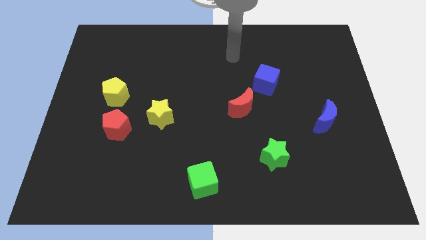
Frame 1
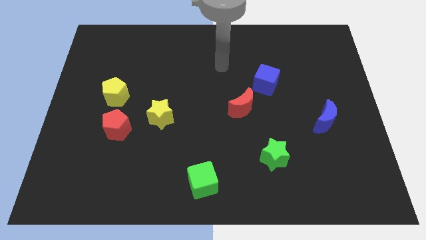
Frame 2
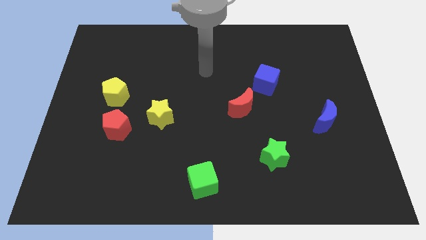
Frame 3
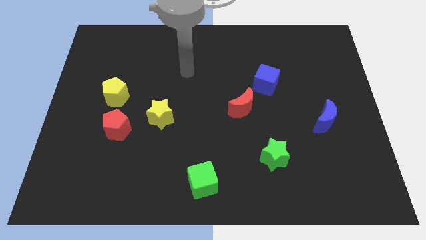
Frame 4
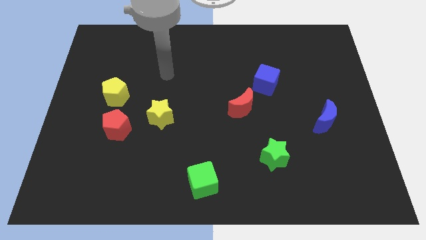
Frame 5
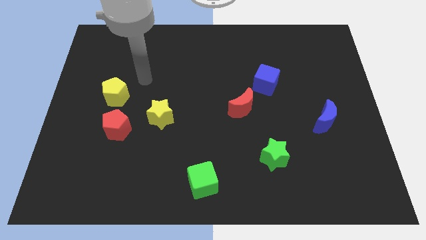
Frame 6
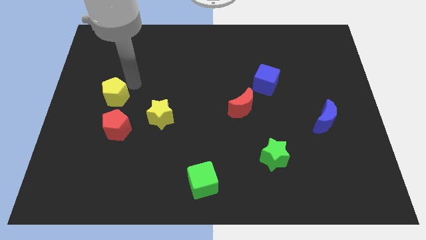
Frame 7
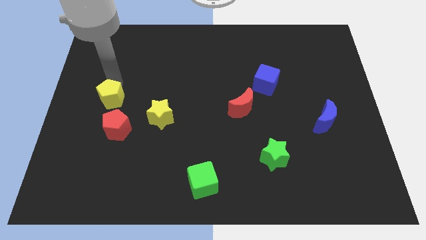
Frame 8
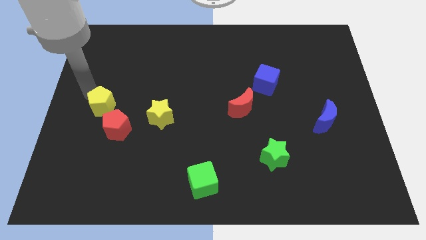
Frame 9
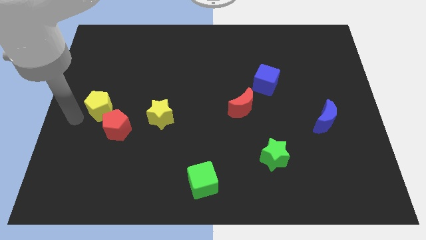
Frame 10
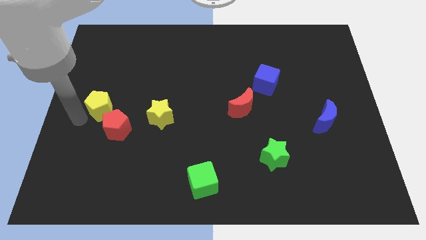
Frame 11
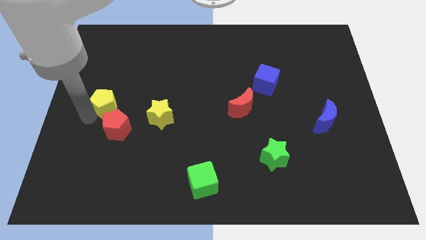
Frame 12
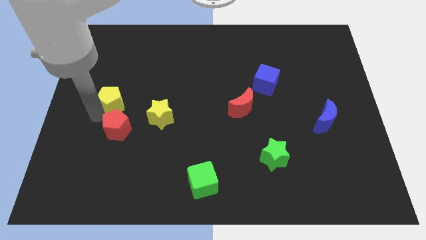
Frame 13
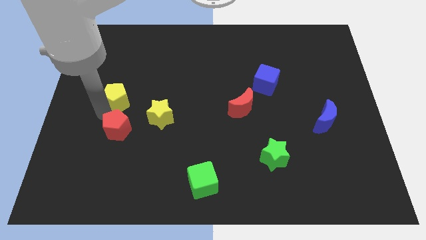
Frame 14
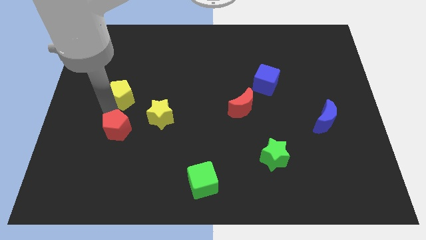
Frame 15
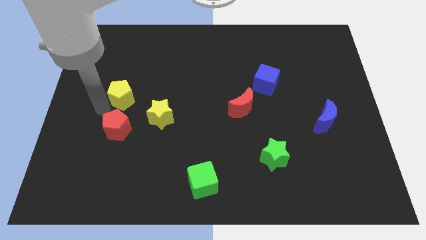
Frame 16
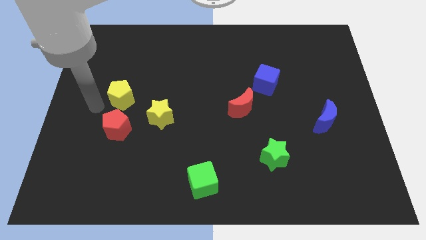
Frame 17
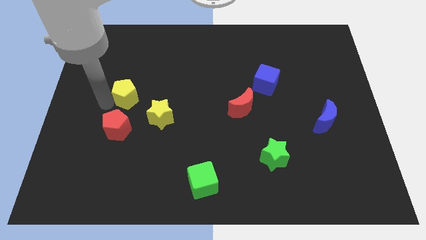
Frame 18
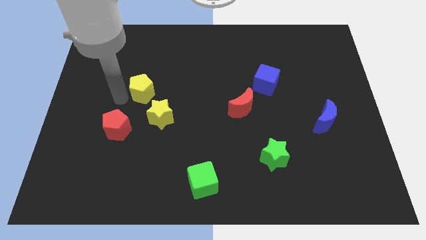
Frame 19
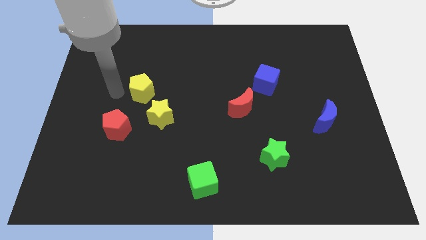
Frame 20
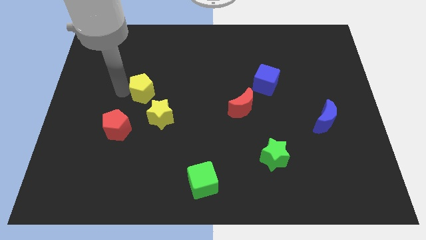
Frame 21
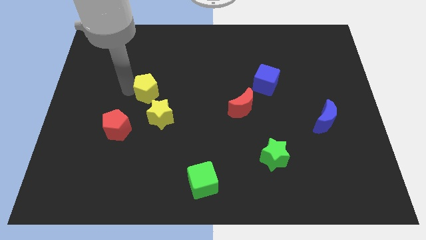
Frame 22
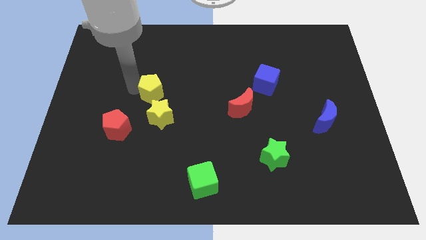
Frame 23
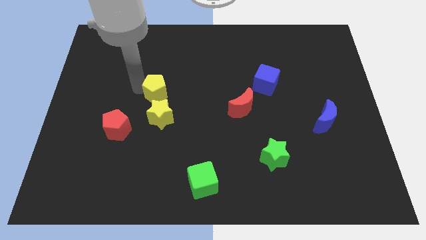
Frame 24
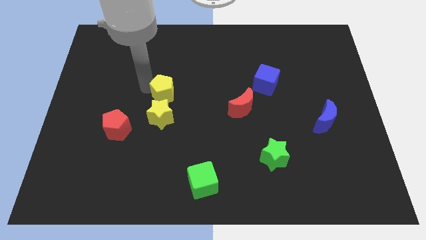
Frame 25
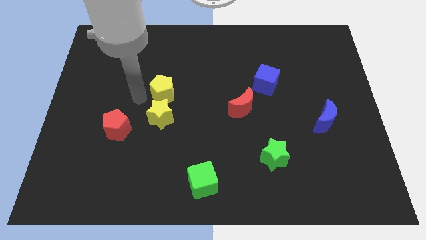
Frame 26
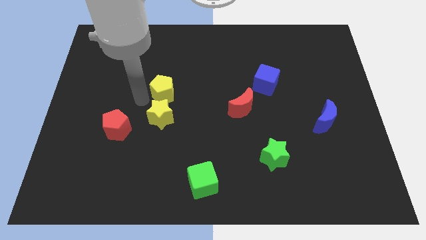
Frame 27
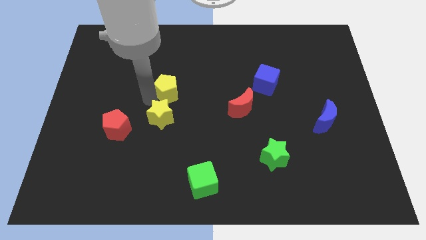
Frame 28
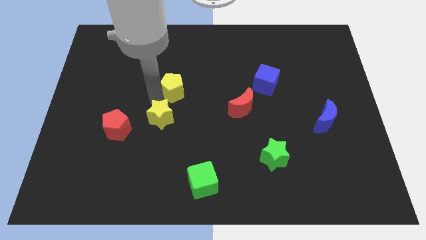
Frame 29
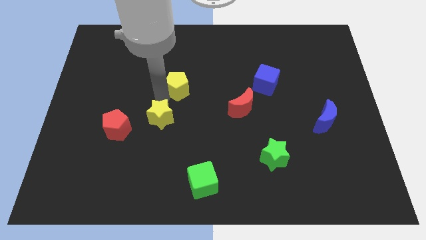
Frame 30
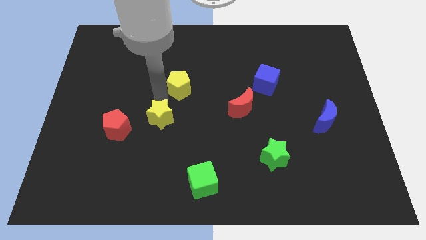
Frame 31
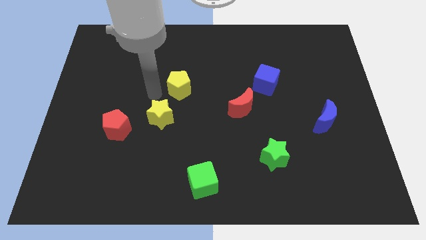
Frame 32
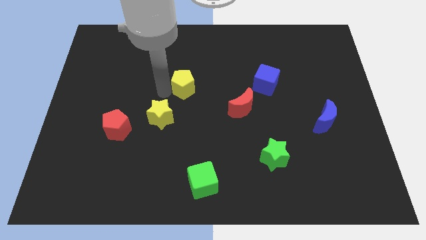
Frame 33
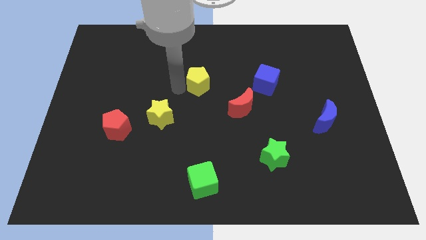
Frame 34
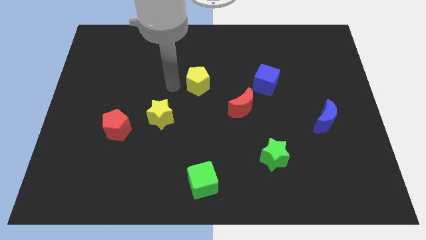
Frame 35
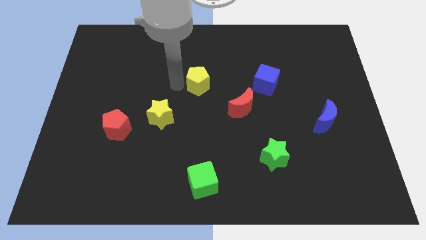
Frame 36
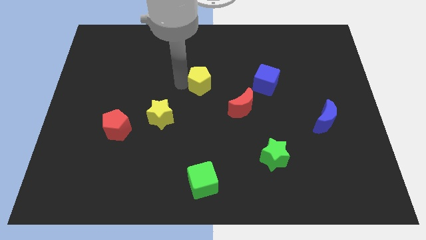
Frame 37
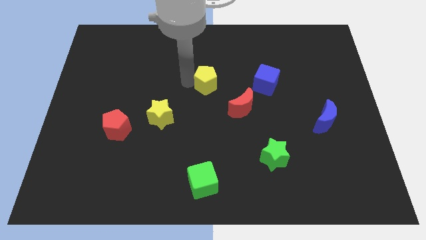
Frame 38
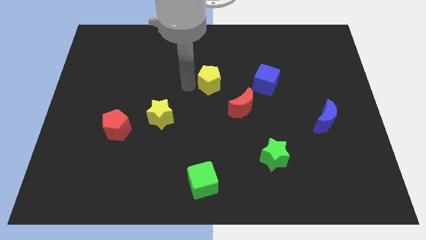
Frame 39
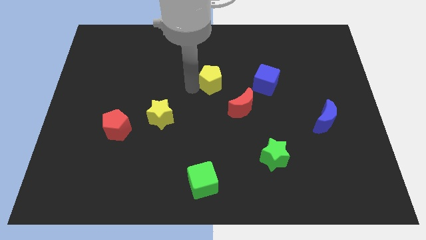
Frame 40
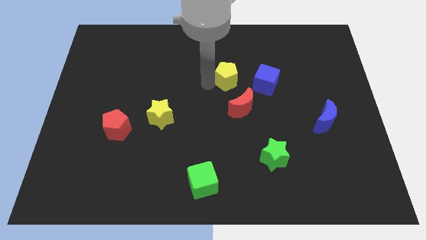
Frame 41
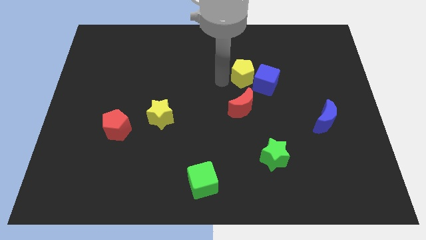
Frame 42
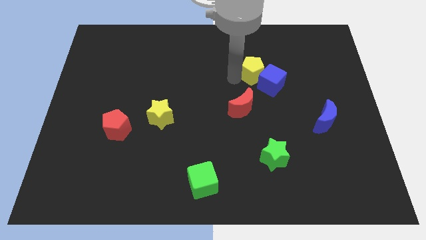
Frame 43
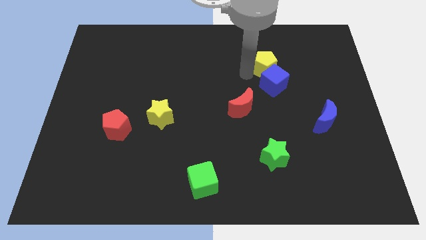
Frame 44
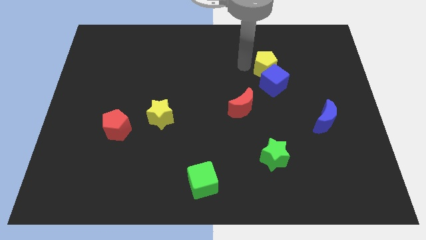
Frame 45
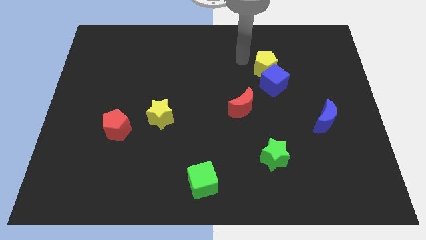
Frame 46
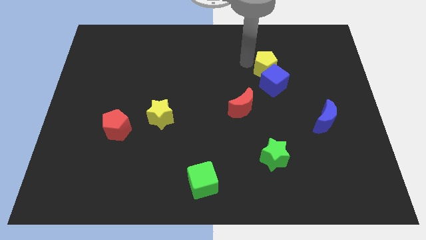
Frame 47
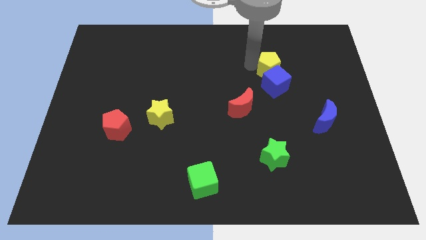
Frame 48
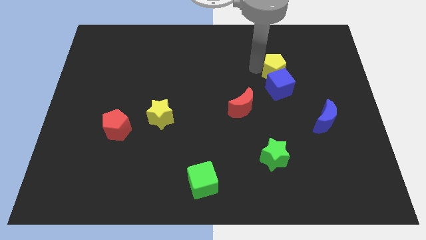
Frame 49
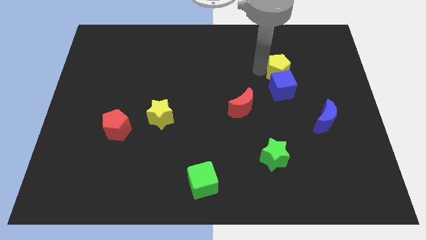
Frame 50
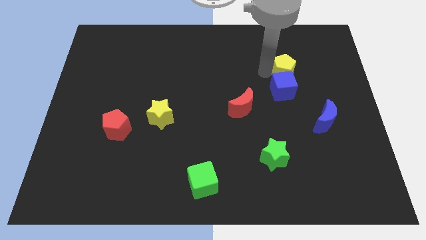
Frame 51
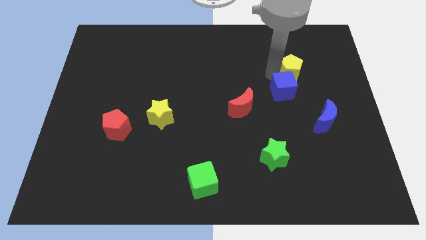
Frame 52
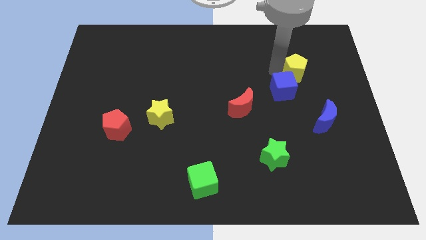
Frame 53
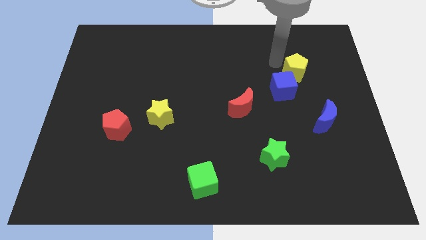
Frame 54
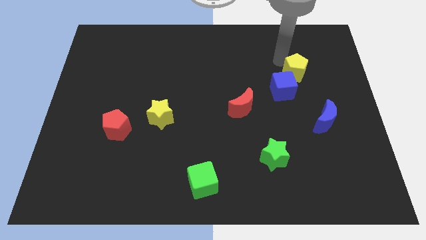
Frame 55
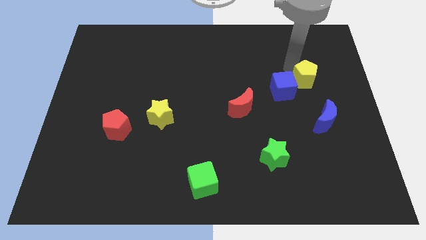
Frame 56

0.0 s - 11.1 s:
push the yellow pentagon to the top side of the blue moon

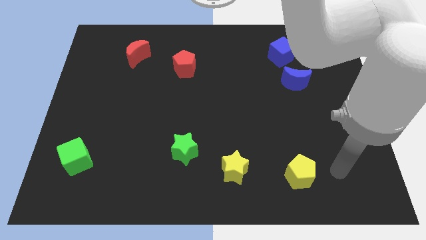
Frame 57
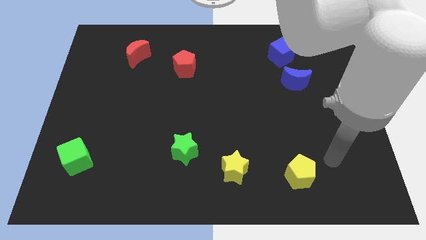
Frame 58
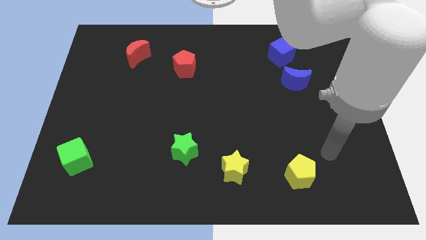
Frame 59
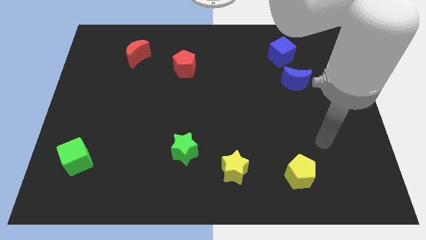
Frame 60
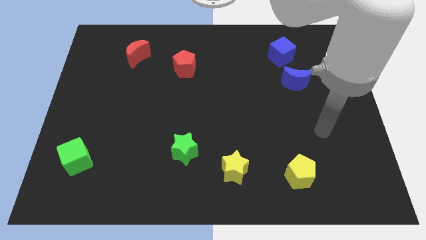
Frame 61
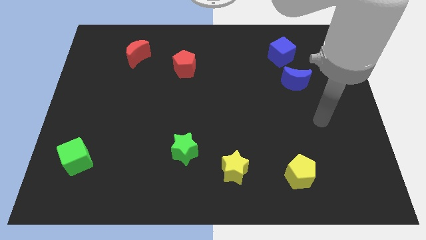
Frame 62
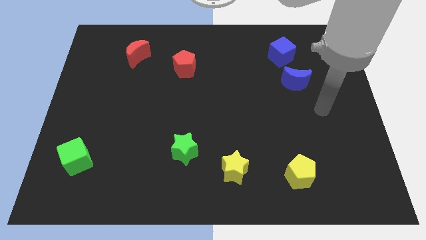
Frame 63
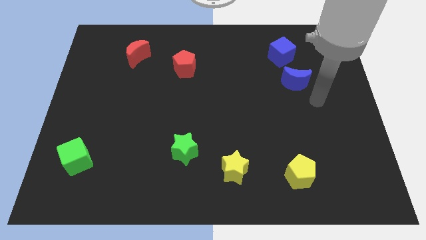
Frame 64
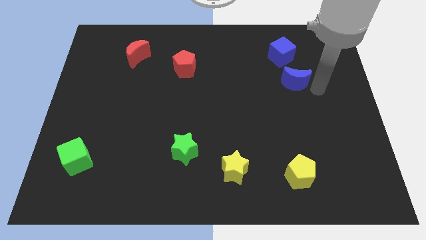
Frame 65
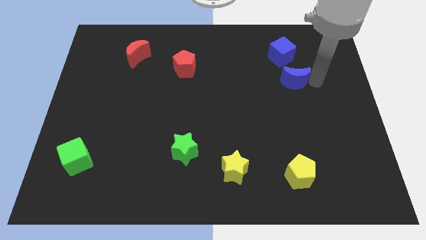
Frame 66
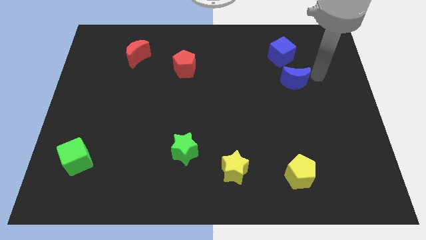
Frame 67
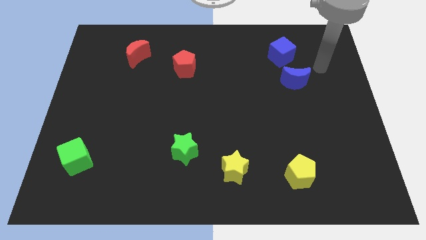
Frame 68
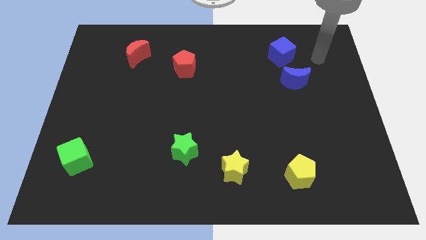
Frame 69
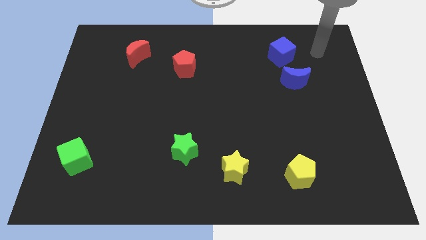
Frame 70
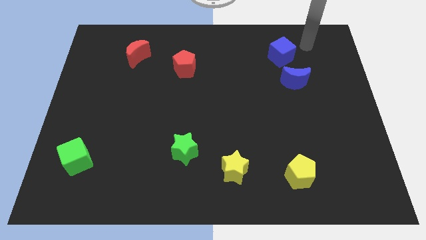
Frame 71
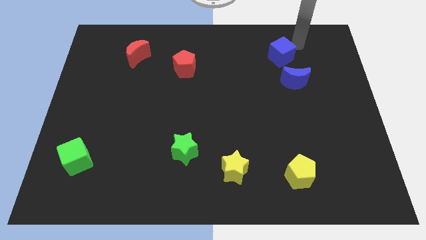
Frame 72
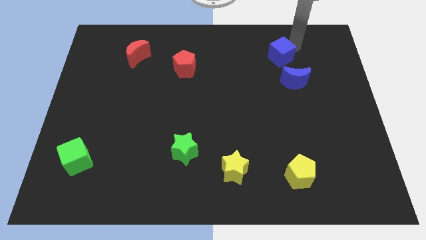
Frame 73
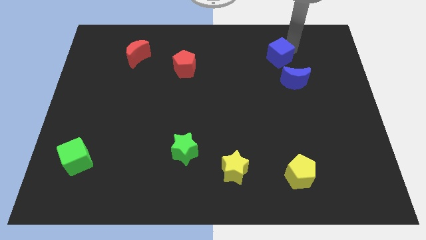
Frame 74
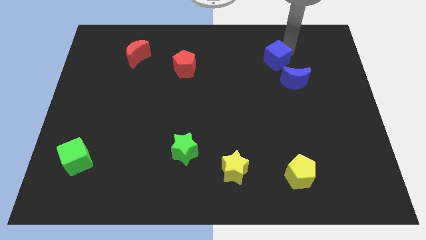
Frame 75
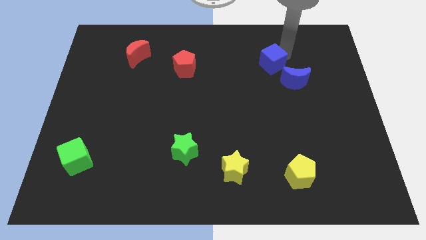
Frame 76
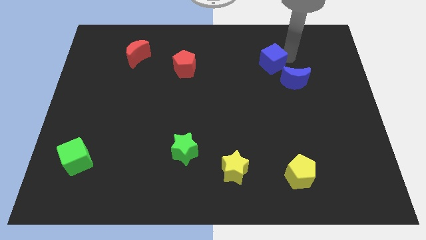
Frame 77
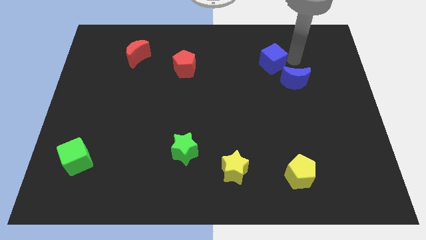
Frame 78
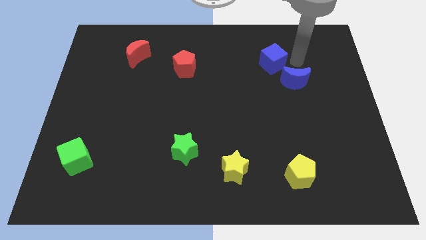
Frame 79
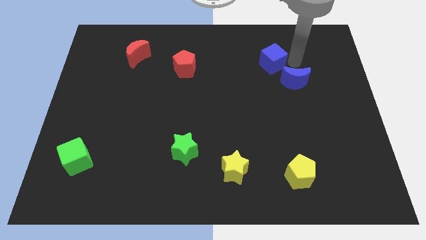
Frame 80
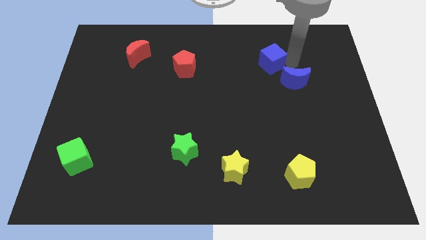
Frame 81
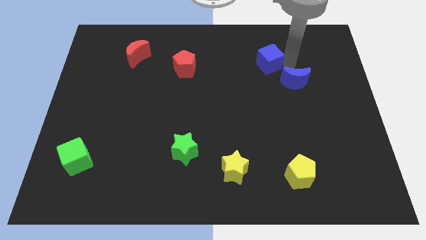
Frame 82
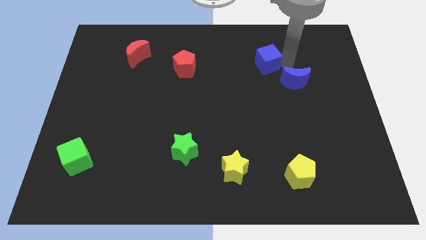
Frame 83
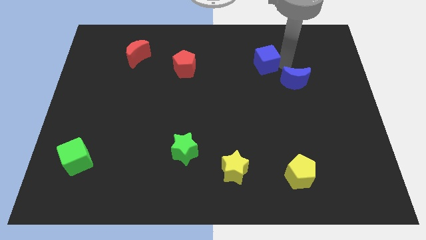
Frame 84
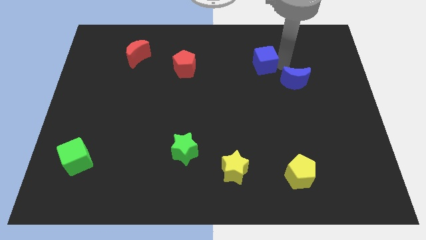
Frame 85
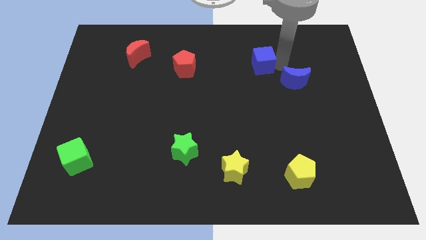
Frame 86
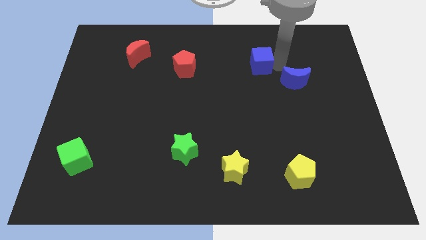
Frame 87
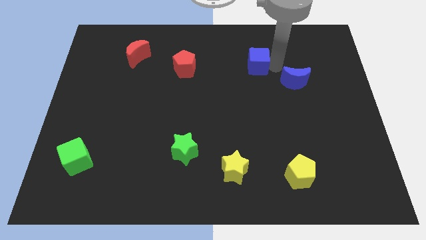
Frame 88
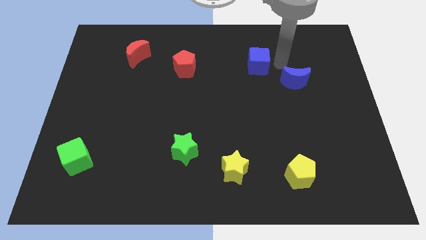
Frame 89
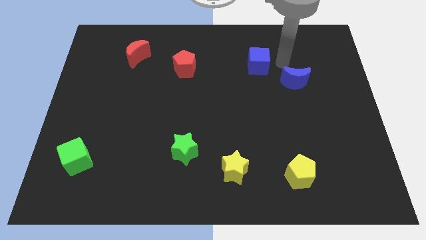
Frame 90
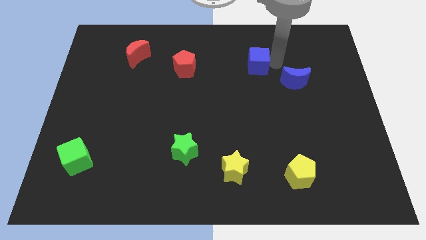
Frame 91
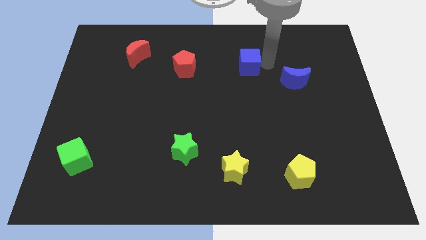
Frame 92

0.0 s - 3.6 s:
slide the blue cube right of the red pentagon
